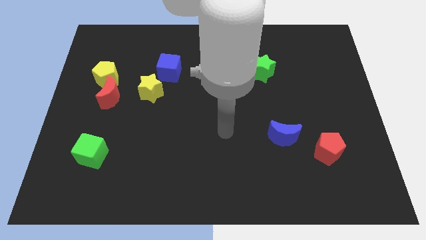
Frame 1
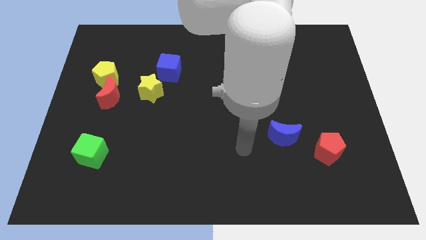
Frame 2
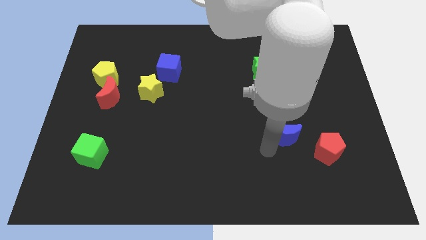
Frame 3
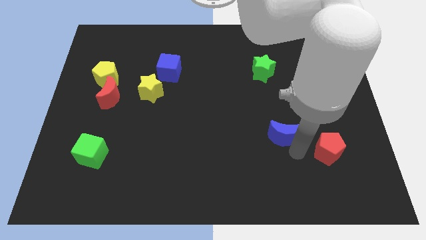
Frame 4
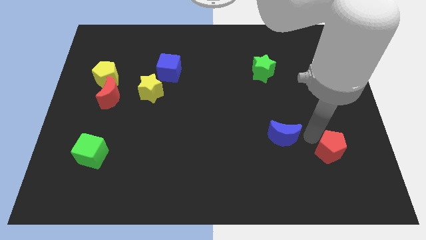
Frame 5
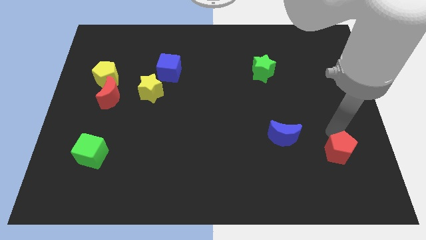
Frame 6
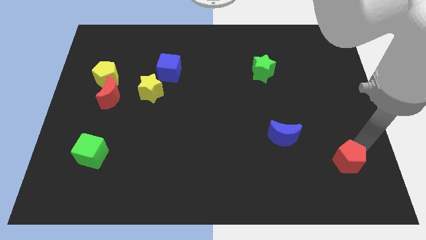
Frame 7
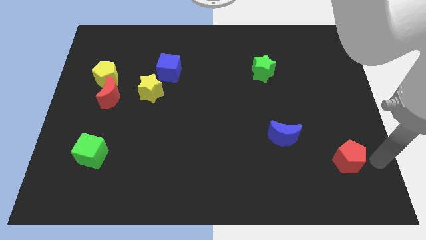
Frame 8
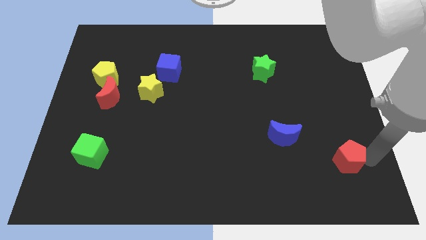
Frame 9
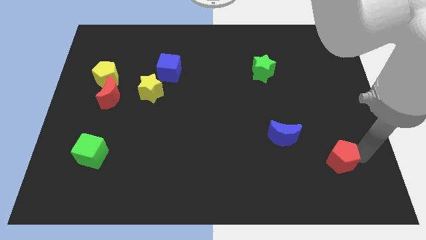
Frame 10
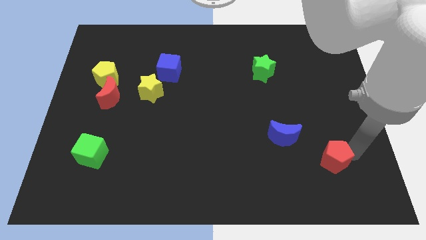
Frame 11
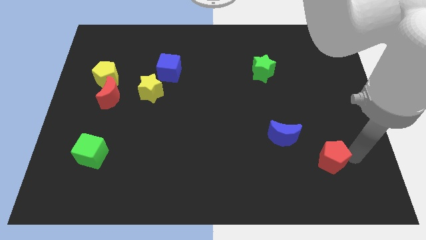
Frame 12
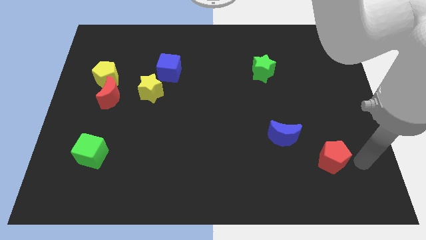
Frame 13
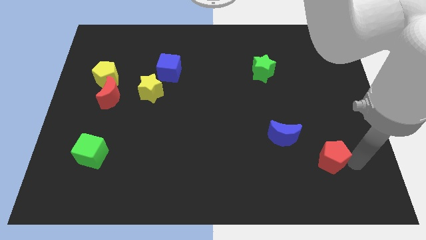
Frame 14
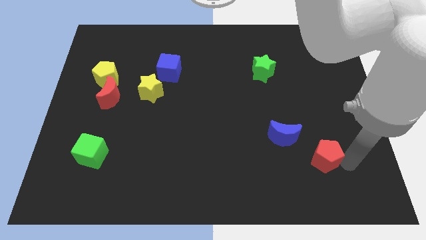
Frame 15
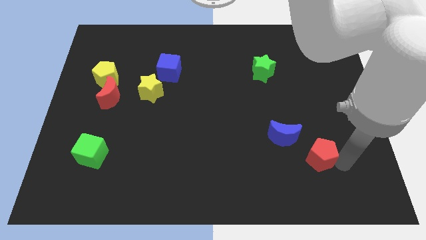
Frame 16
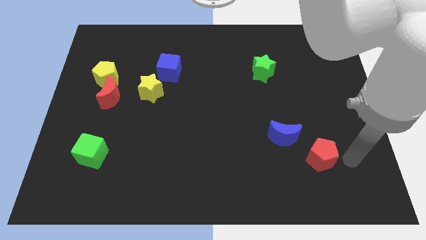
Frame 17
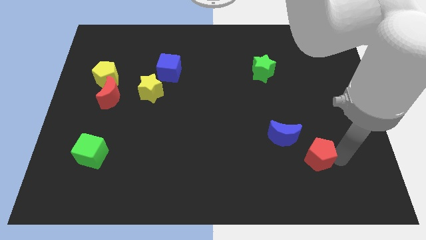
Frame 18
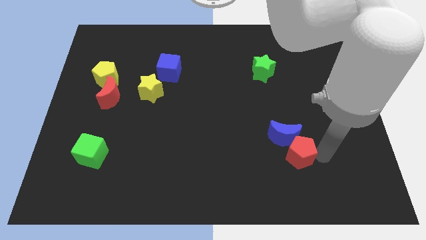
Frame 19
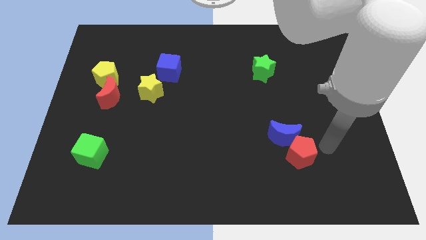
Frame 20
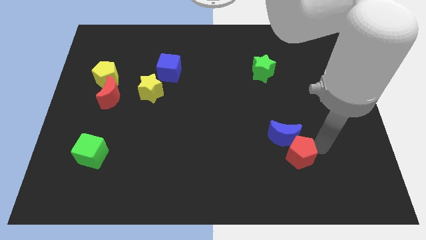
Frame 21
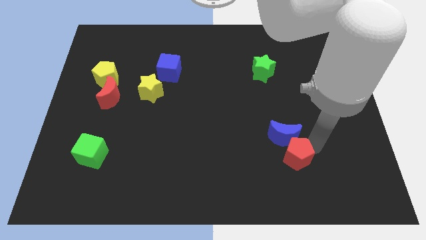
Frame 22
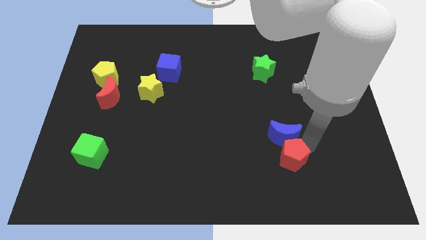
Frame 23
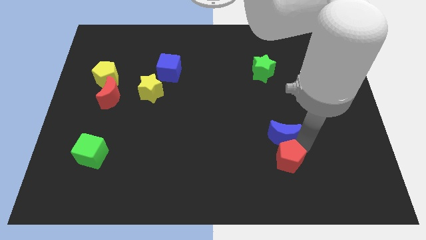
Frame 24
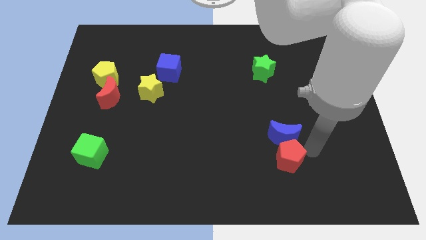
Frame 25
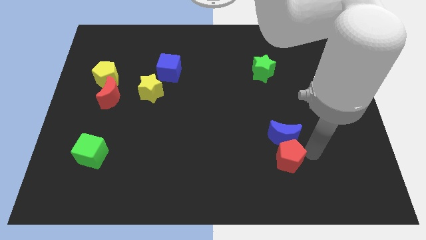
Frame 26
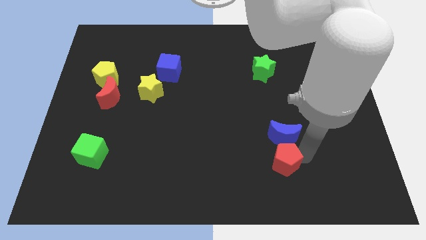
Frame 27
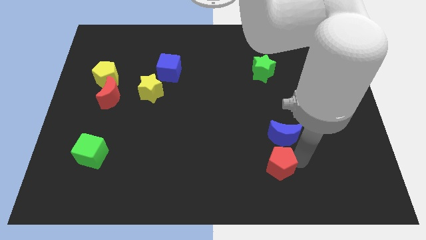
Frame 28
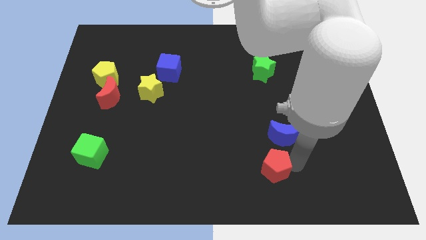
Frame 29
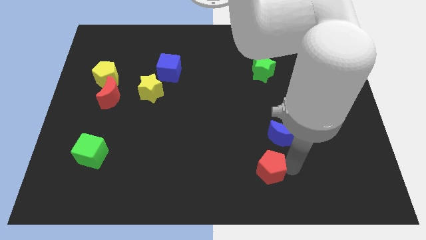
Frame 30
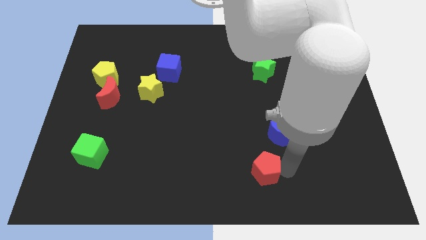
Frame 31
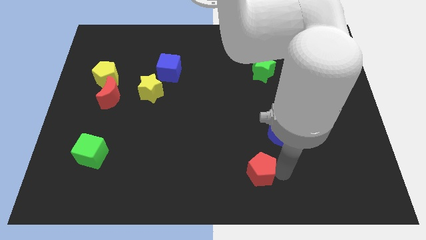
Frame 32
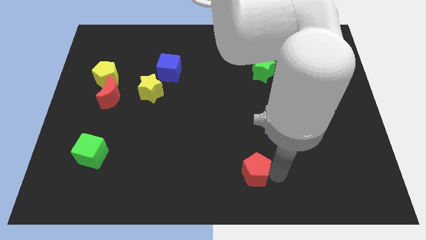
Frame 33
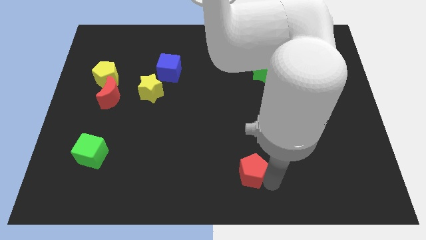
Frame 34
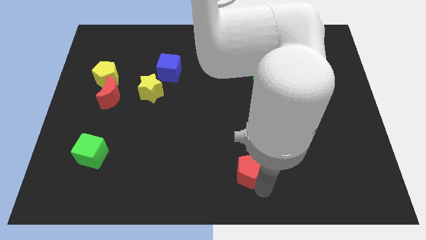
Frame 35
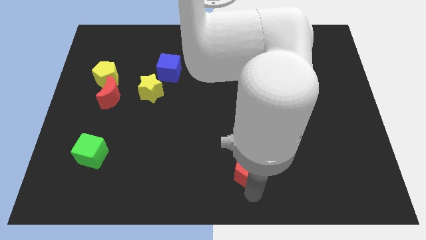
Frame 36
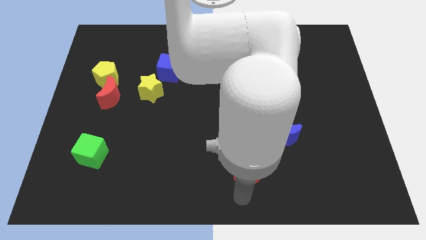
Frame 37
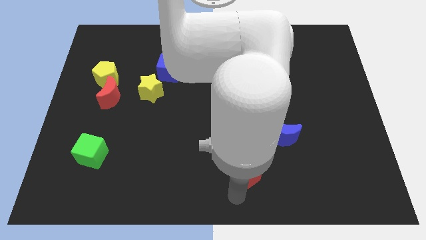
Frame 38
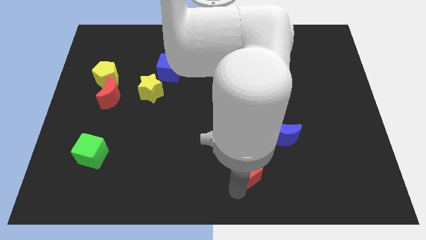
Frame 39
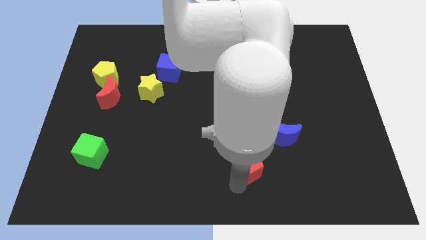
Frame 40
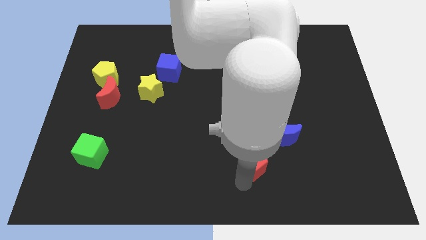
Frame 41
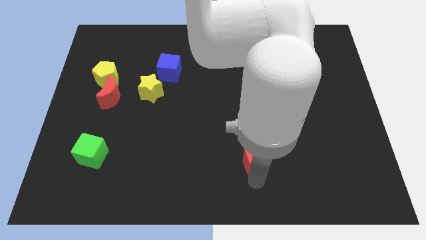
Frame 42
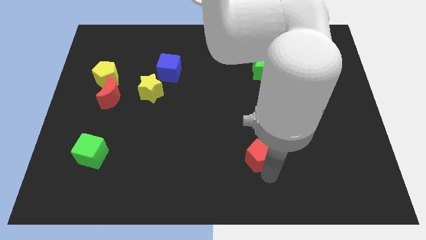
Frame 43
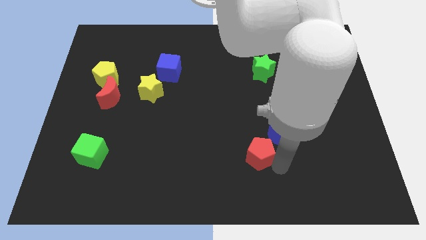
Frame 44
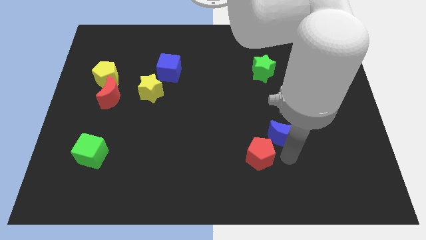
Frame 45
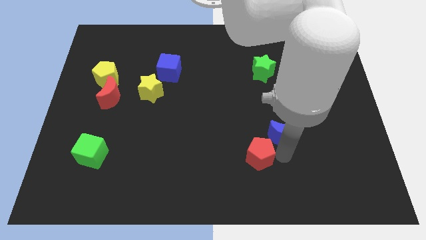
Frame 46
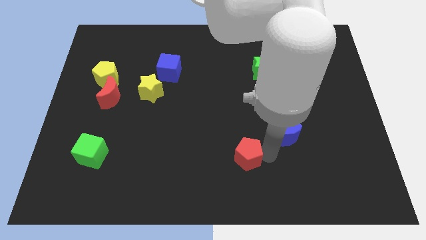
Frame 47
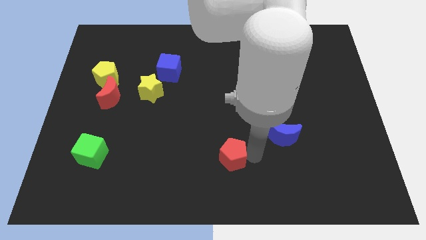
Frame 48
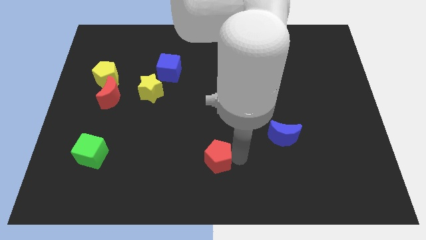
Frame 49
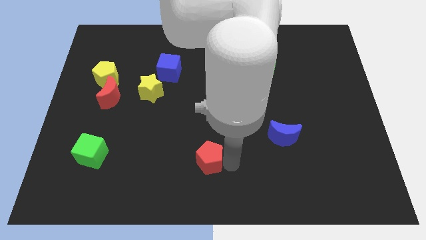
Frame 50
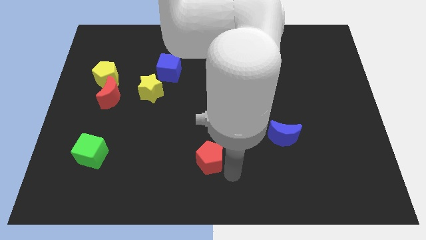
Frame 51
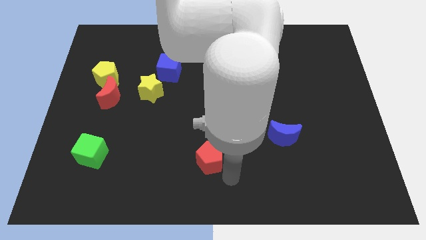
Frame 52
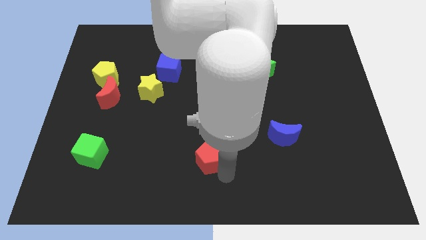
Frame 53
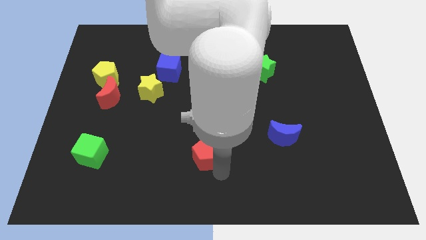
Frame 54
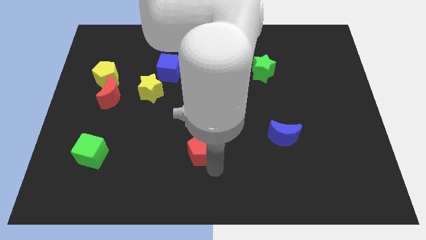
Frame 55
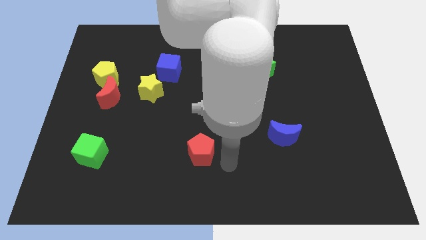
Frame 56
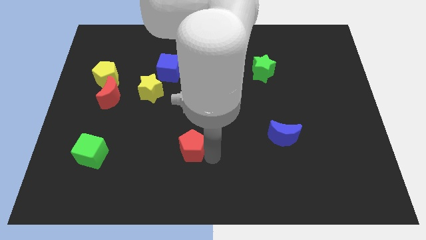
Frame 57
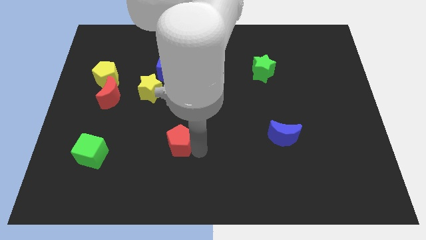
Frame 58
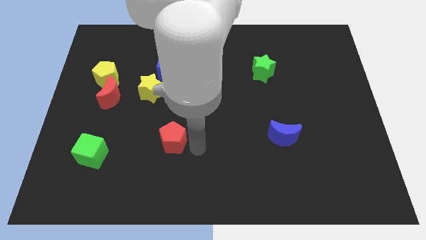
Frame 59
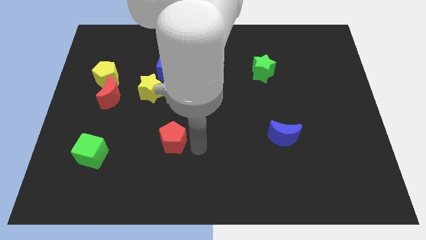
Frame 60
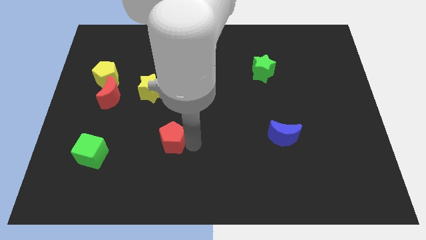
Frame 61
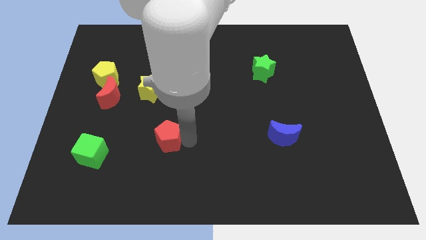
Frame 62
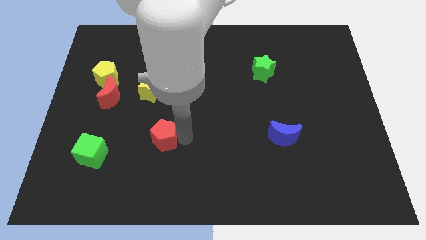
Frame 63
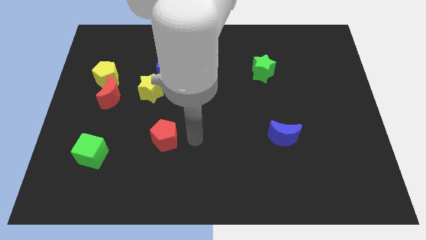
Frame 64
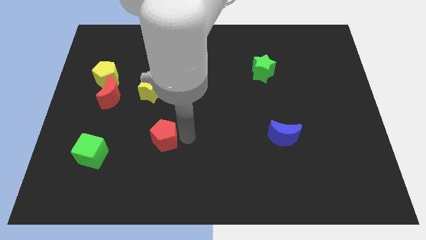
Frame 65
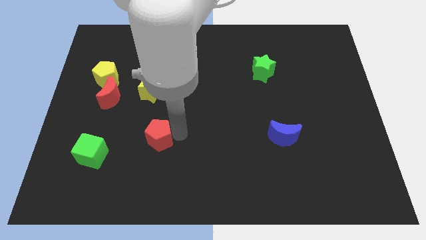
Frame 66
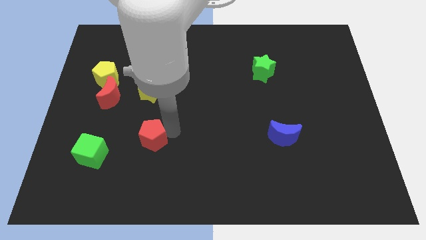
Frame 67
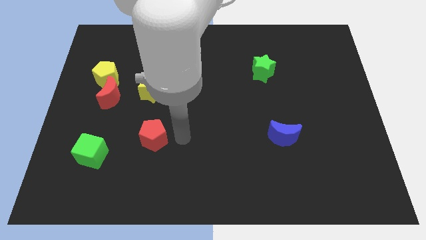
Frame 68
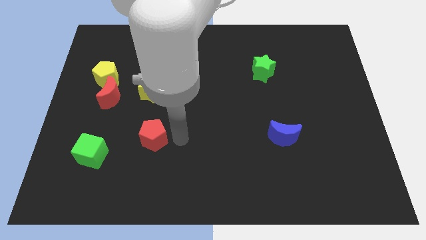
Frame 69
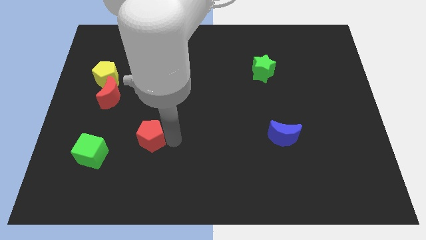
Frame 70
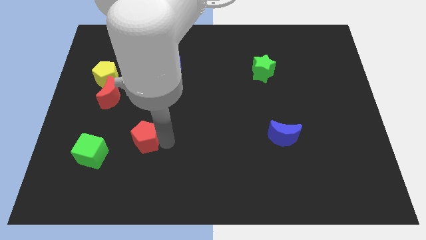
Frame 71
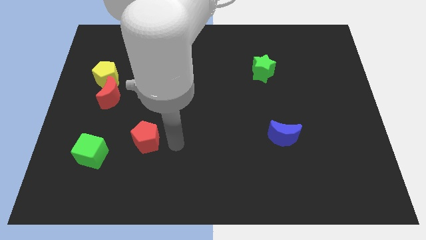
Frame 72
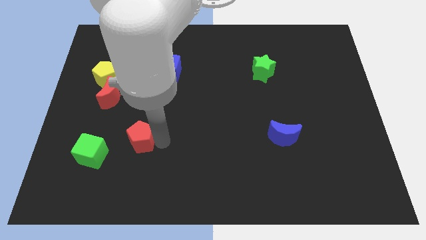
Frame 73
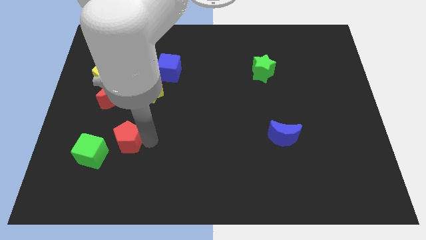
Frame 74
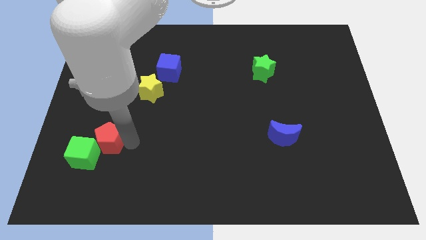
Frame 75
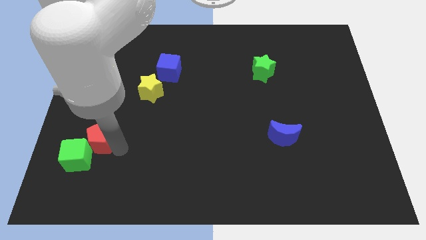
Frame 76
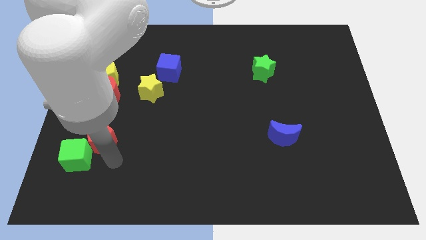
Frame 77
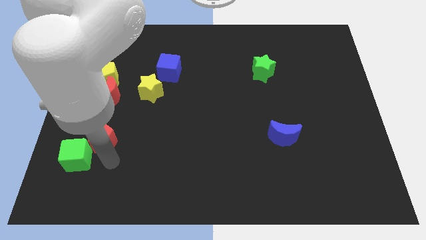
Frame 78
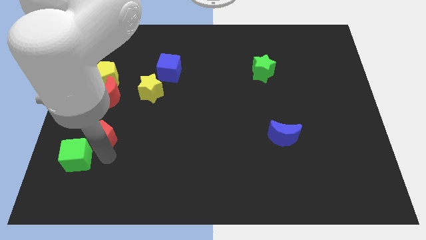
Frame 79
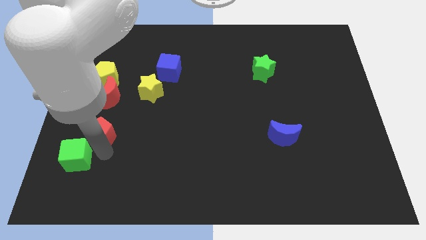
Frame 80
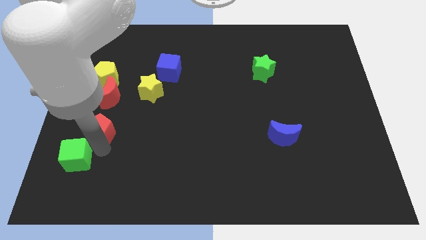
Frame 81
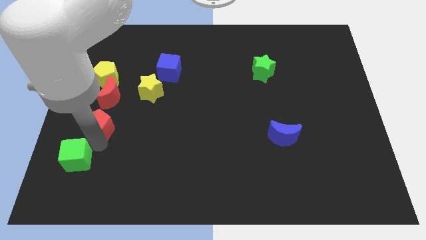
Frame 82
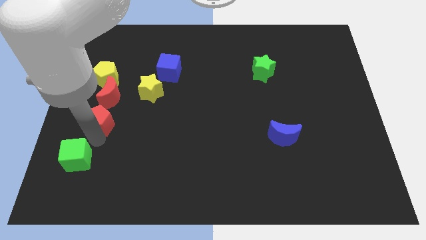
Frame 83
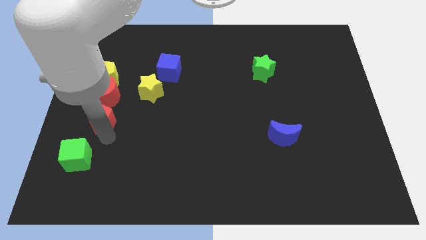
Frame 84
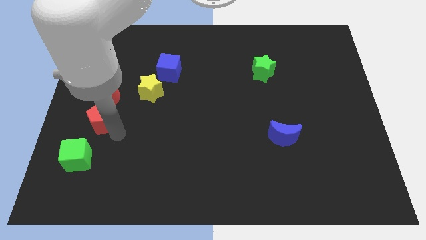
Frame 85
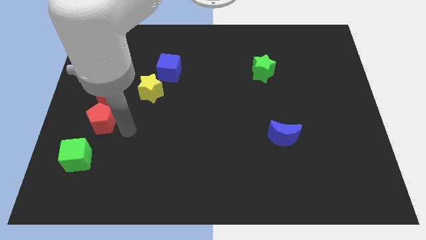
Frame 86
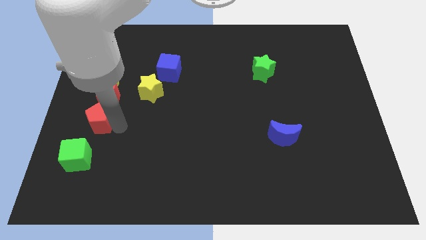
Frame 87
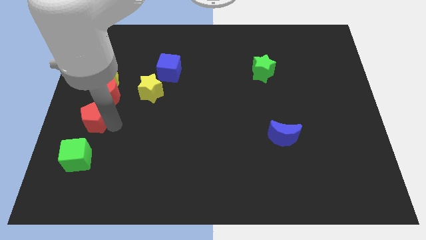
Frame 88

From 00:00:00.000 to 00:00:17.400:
put the red pentagon to the left side
